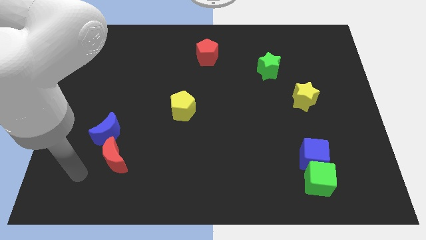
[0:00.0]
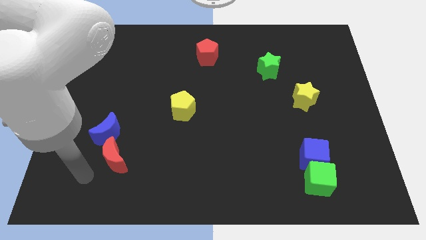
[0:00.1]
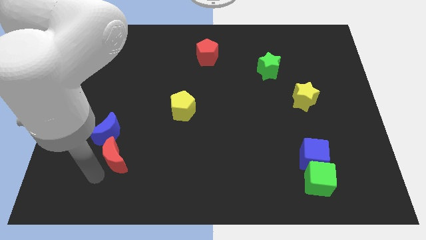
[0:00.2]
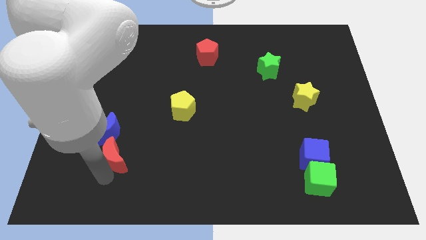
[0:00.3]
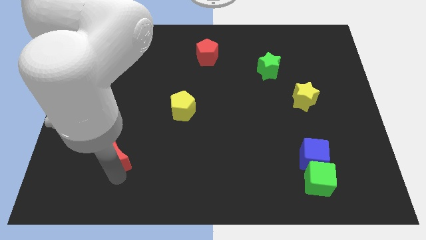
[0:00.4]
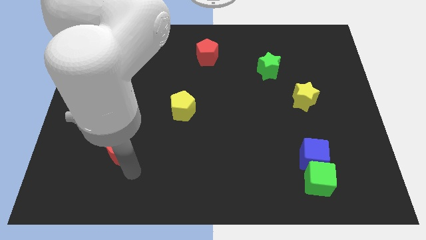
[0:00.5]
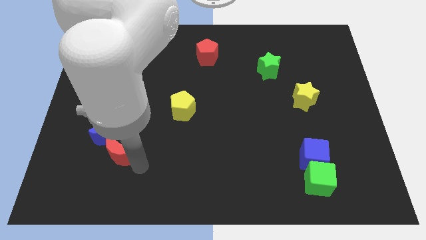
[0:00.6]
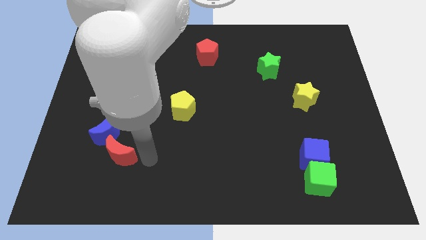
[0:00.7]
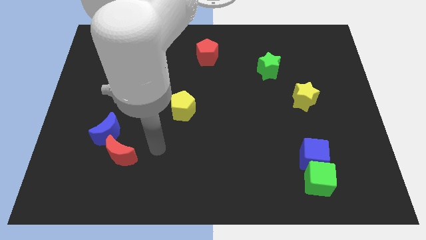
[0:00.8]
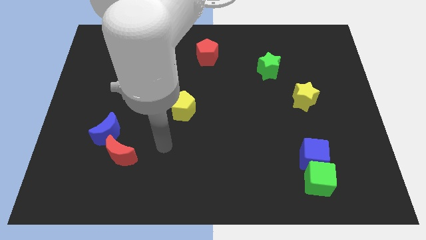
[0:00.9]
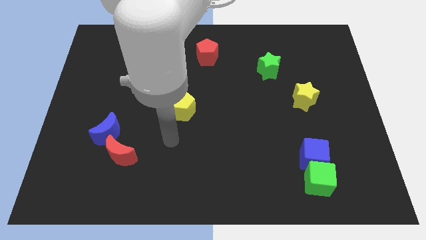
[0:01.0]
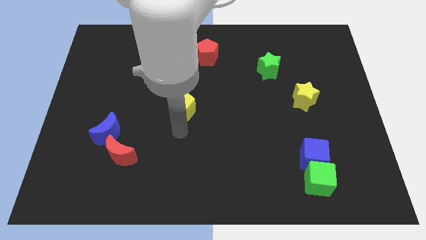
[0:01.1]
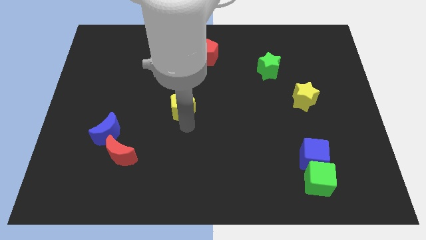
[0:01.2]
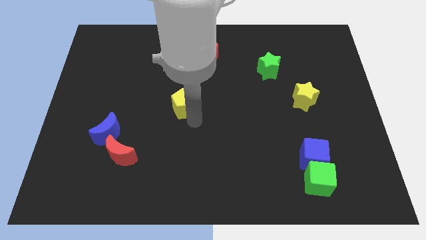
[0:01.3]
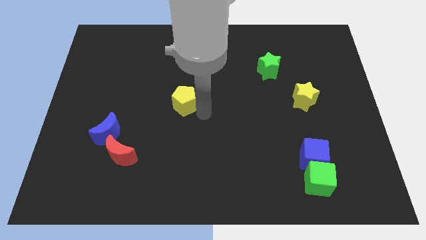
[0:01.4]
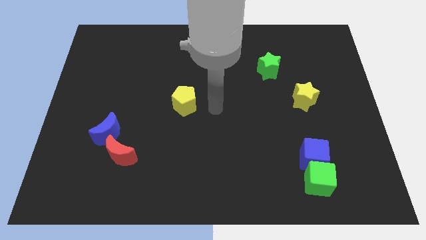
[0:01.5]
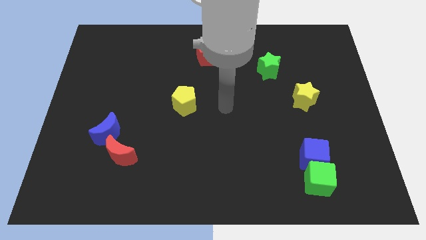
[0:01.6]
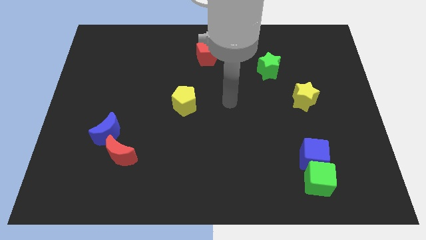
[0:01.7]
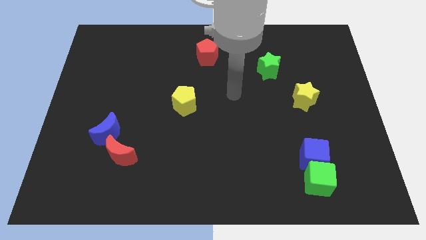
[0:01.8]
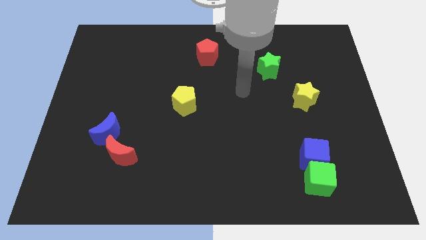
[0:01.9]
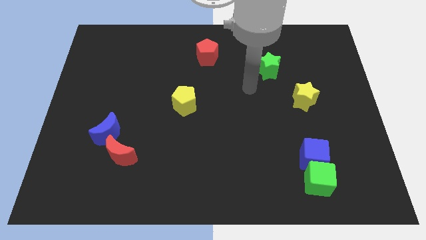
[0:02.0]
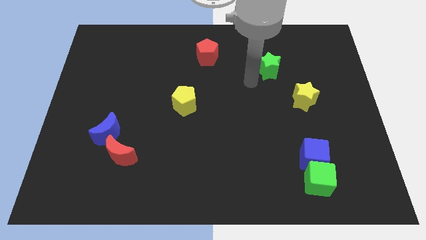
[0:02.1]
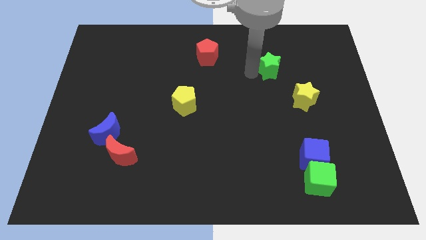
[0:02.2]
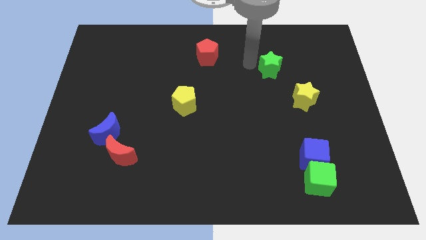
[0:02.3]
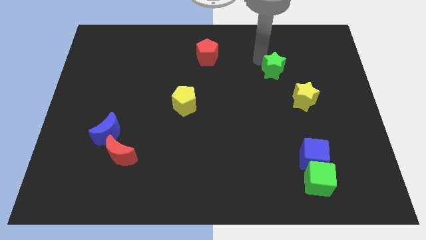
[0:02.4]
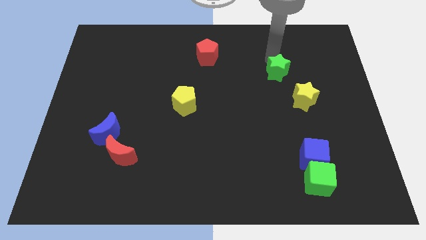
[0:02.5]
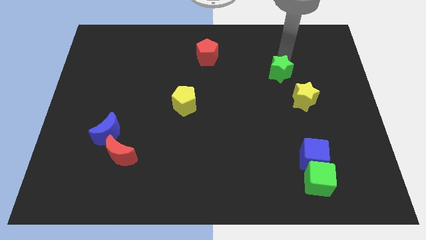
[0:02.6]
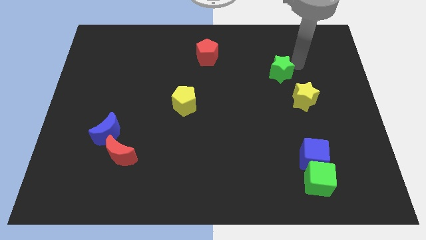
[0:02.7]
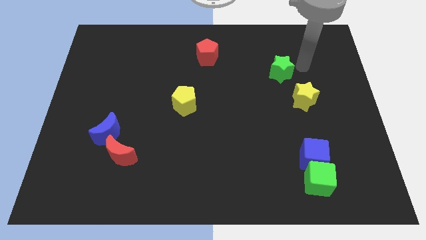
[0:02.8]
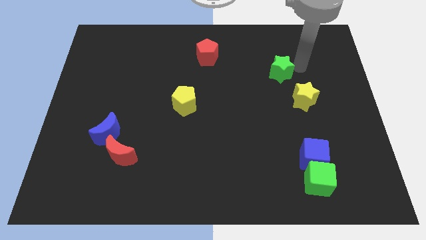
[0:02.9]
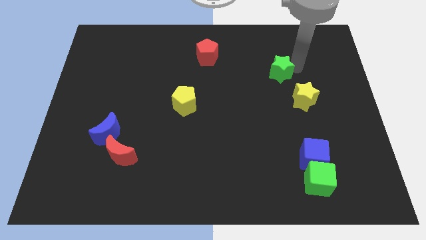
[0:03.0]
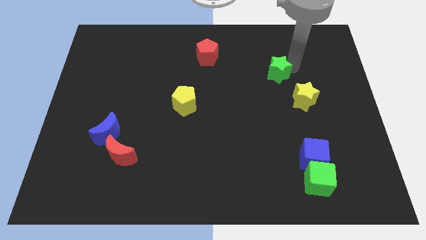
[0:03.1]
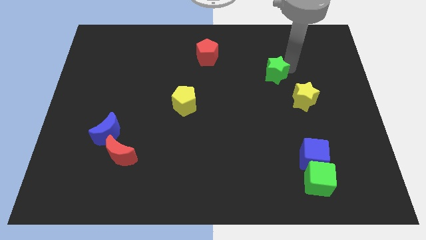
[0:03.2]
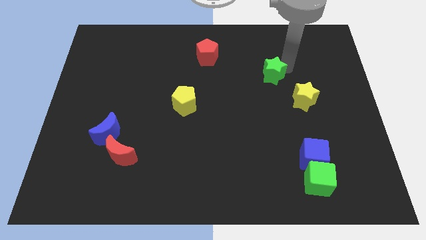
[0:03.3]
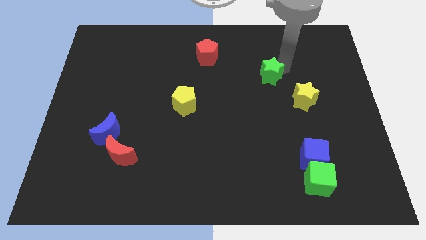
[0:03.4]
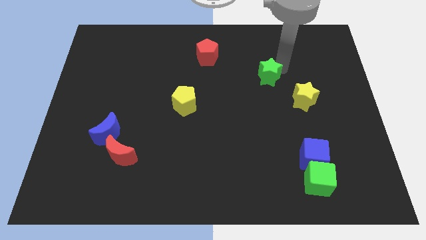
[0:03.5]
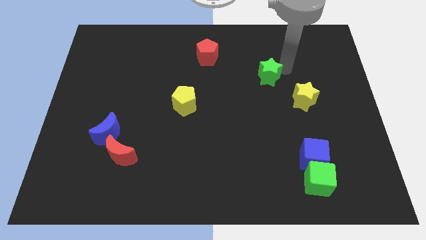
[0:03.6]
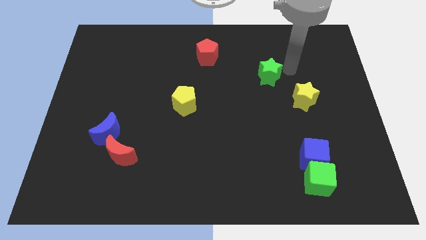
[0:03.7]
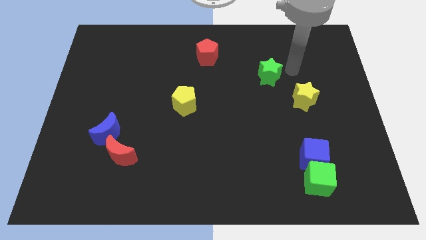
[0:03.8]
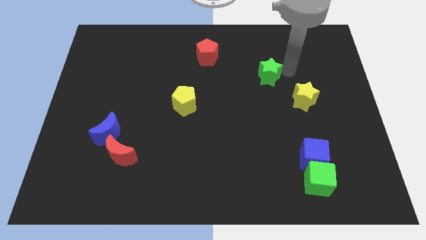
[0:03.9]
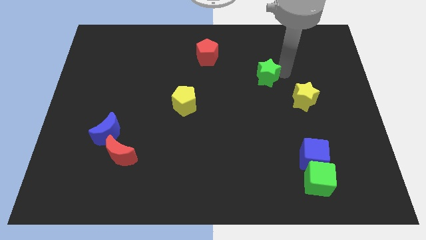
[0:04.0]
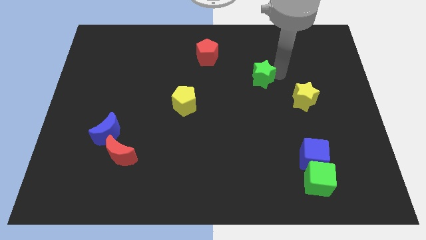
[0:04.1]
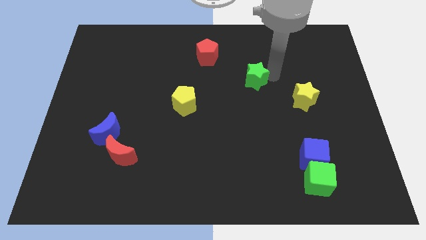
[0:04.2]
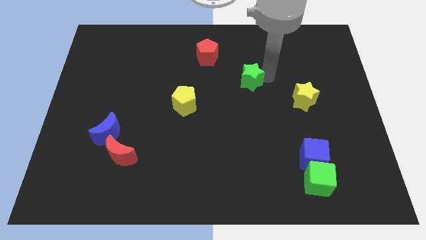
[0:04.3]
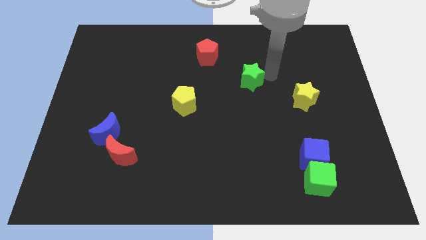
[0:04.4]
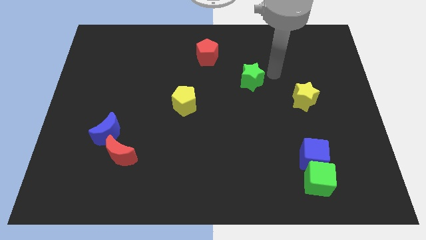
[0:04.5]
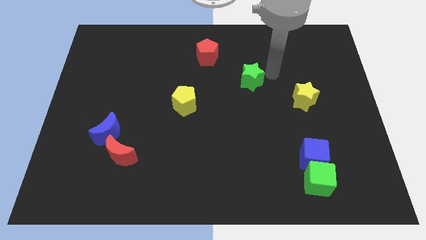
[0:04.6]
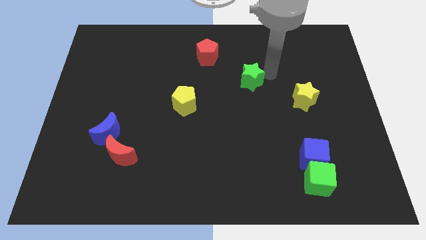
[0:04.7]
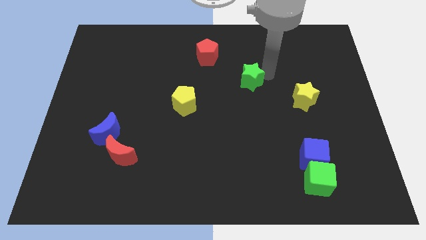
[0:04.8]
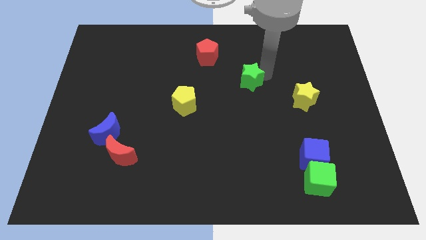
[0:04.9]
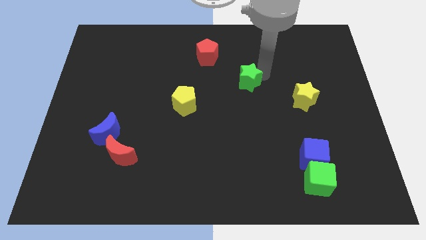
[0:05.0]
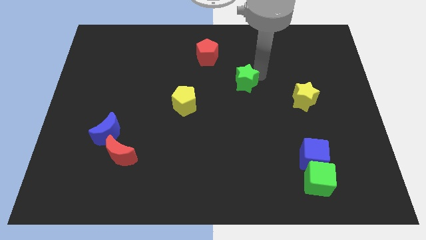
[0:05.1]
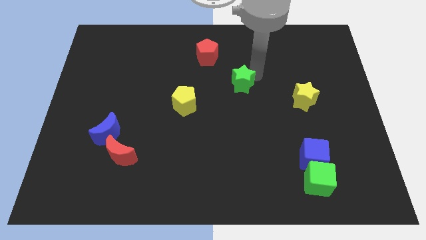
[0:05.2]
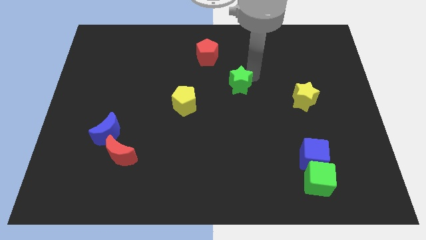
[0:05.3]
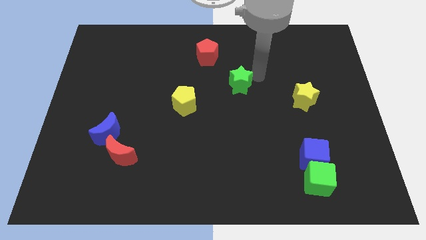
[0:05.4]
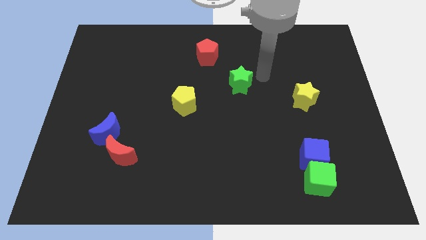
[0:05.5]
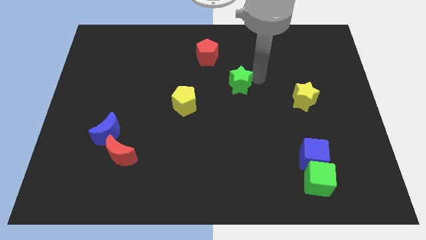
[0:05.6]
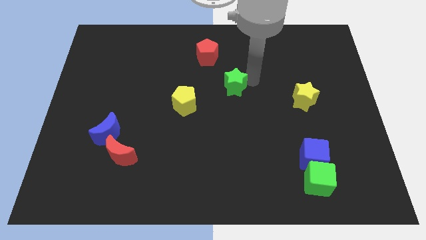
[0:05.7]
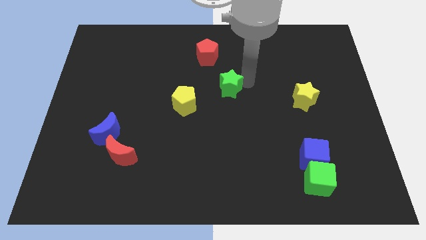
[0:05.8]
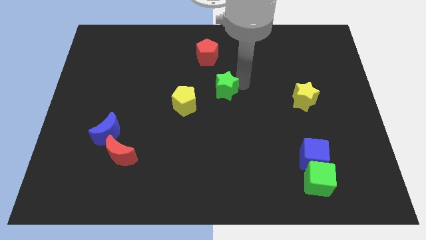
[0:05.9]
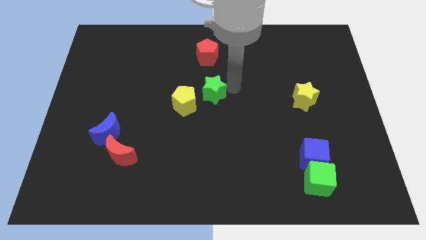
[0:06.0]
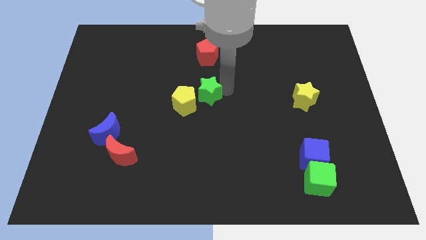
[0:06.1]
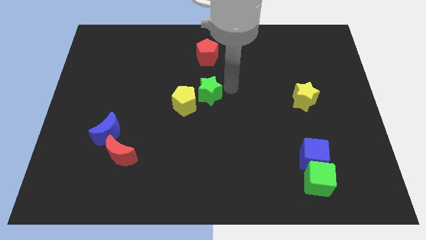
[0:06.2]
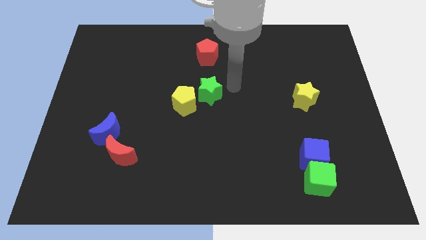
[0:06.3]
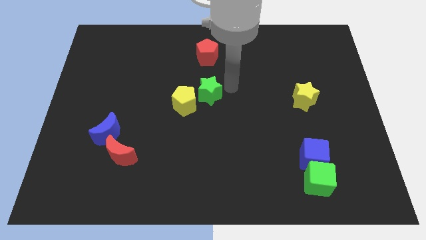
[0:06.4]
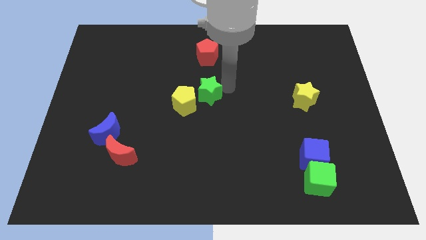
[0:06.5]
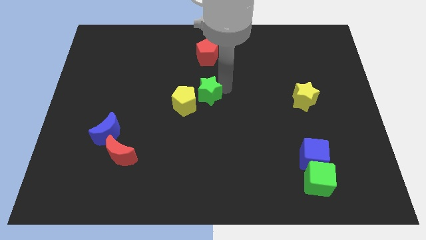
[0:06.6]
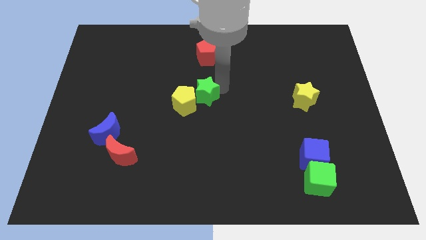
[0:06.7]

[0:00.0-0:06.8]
move the green star next to the yellow pentagon

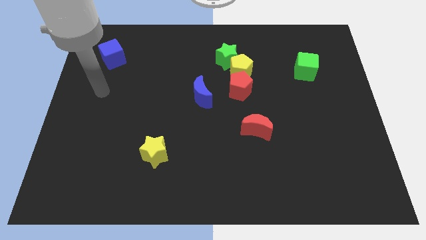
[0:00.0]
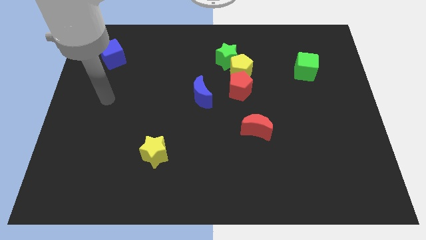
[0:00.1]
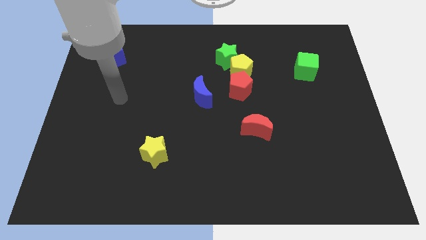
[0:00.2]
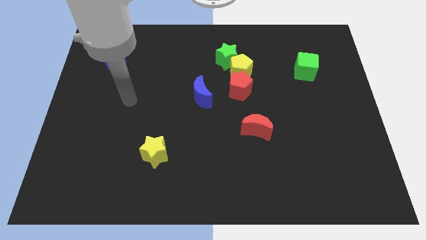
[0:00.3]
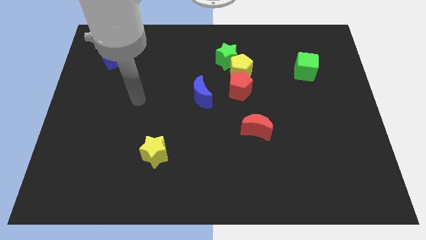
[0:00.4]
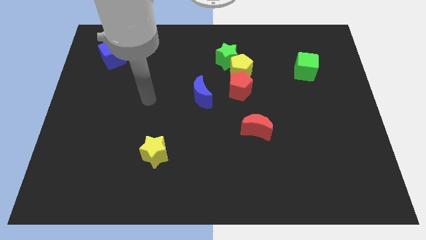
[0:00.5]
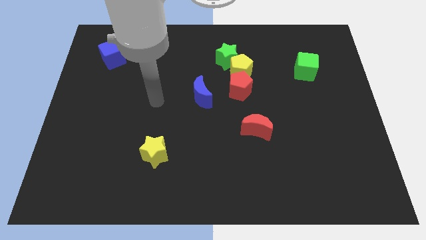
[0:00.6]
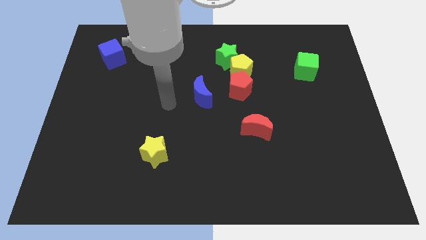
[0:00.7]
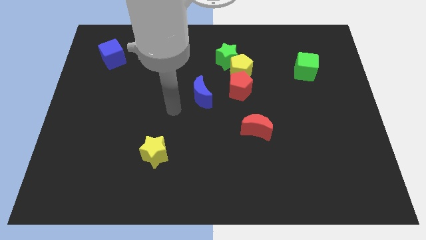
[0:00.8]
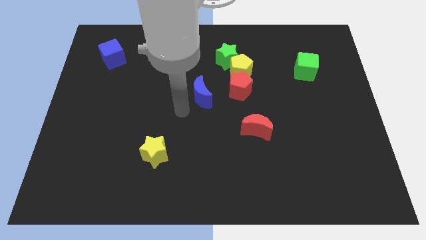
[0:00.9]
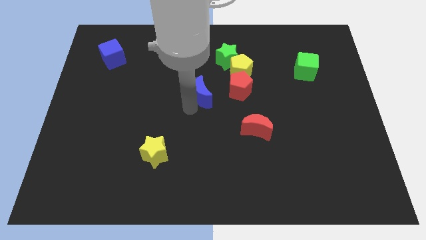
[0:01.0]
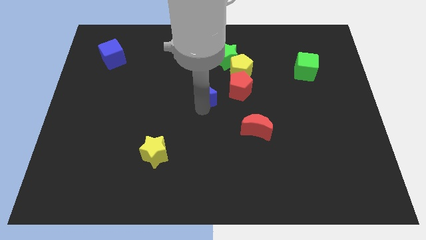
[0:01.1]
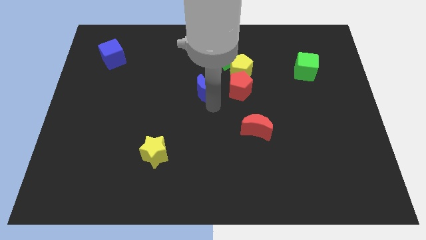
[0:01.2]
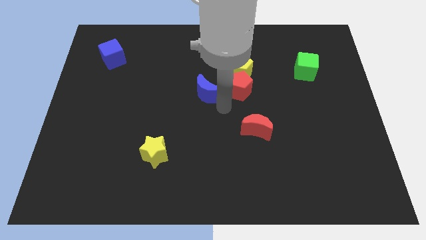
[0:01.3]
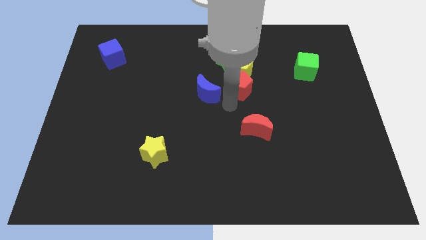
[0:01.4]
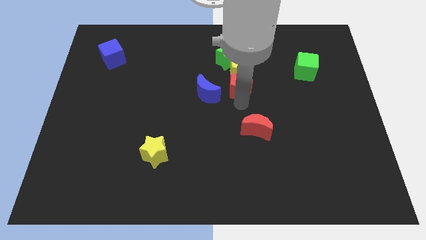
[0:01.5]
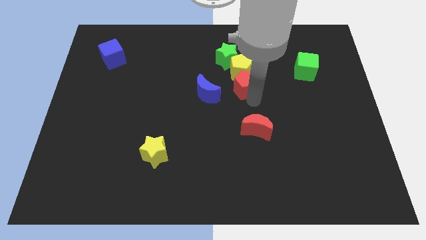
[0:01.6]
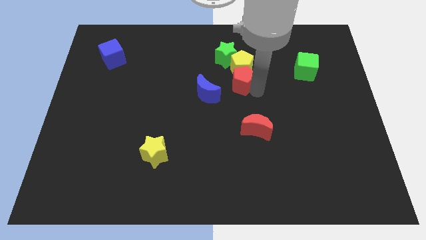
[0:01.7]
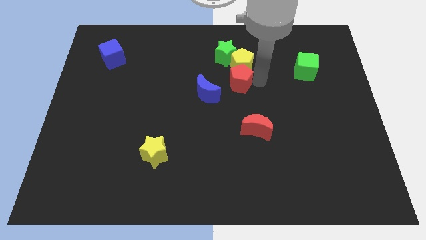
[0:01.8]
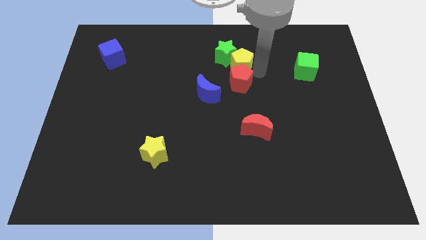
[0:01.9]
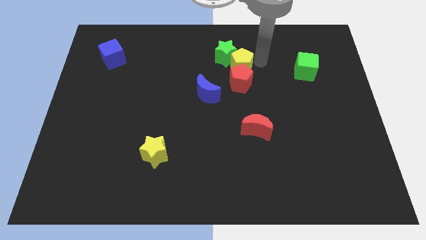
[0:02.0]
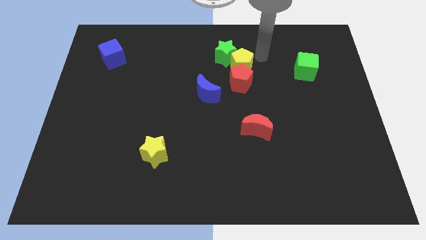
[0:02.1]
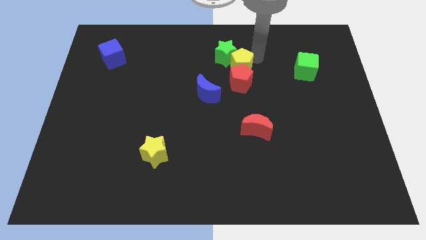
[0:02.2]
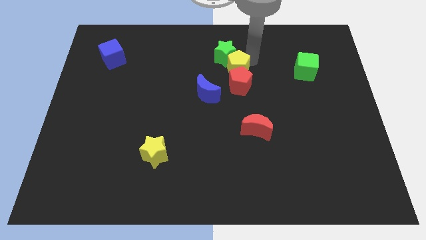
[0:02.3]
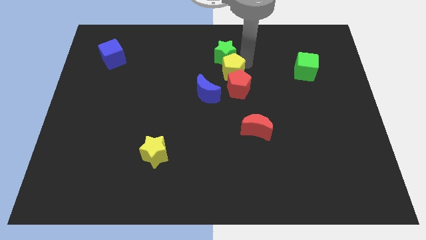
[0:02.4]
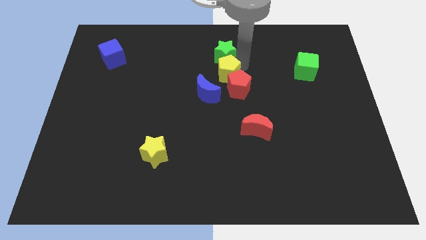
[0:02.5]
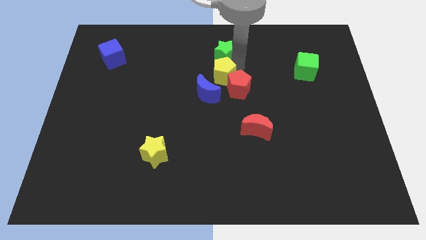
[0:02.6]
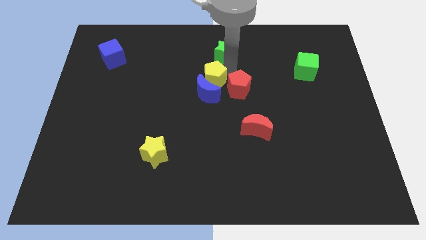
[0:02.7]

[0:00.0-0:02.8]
put the yellow pentagon to the blue moon
